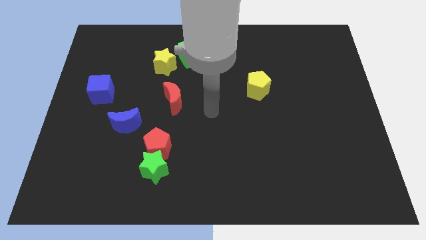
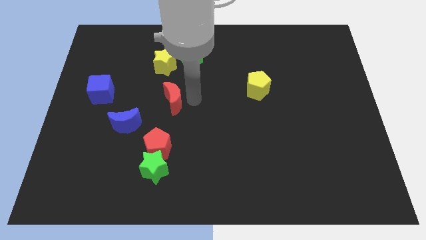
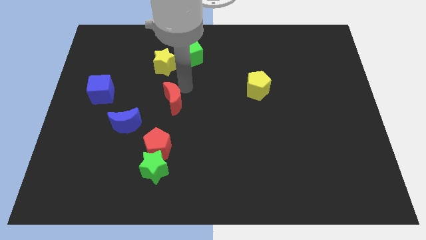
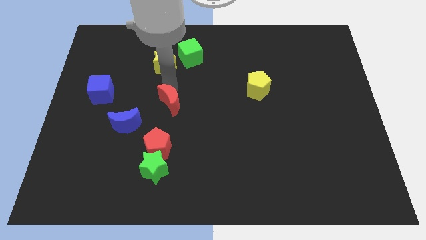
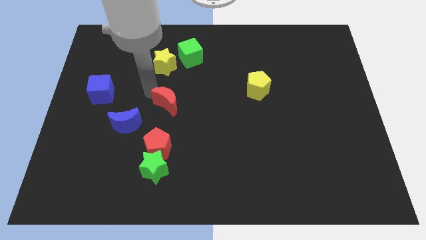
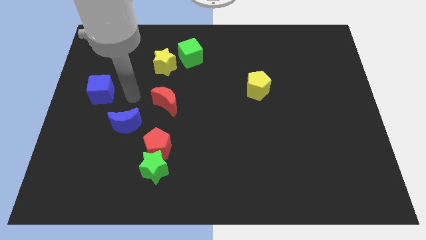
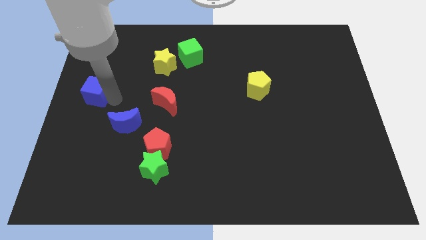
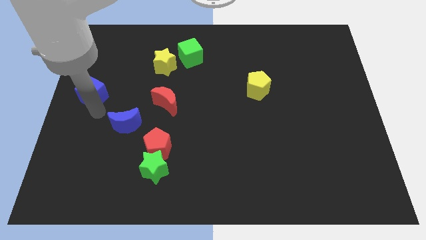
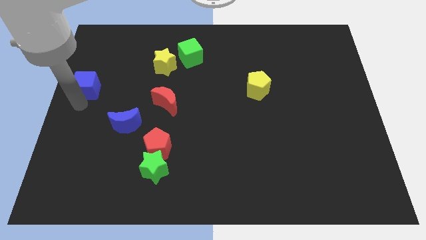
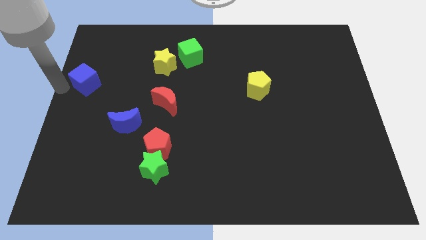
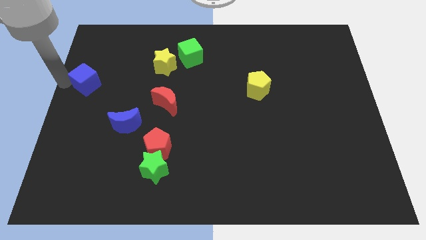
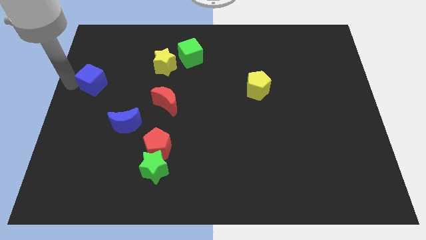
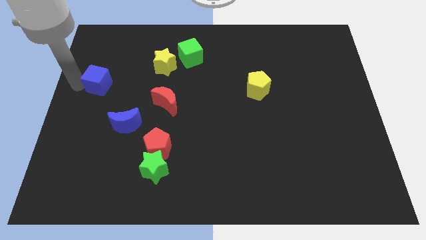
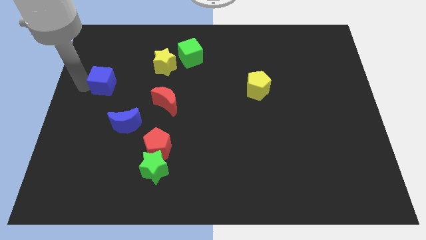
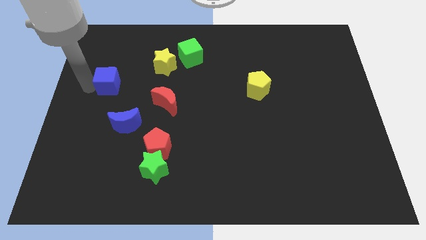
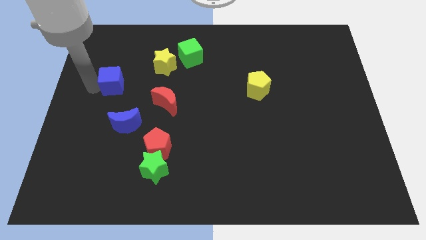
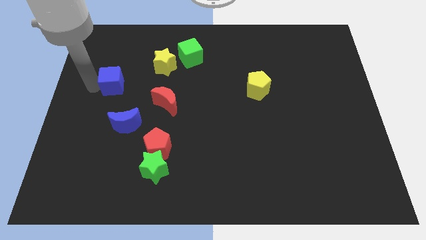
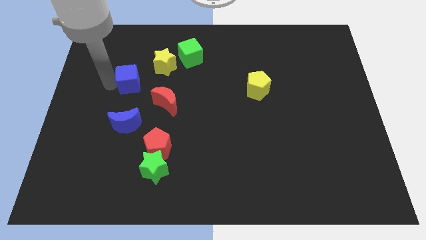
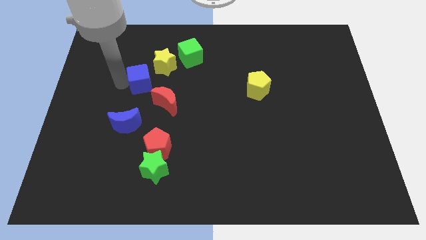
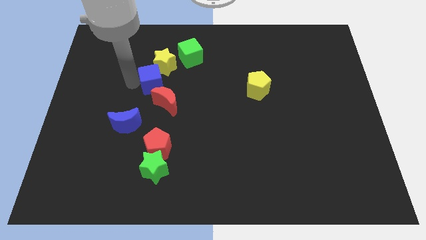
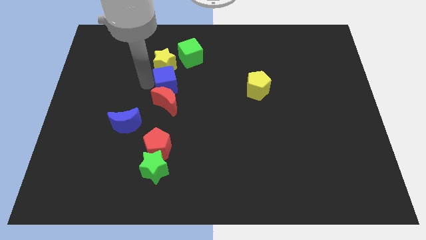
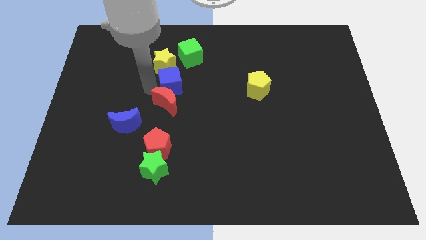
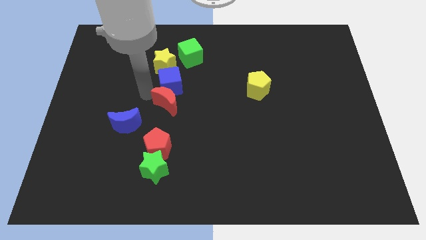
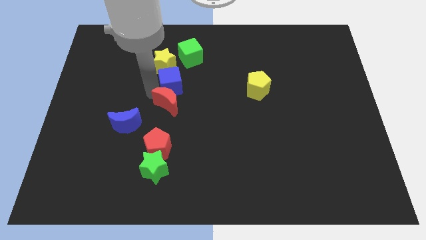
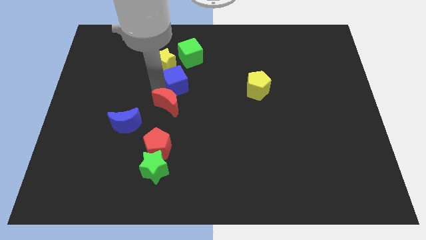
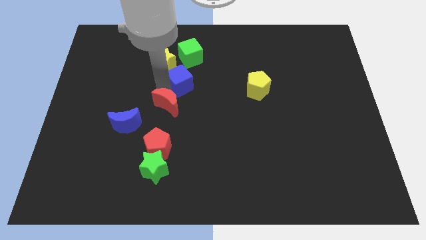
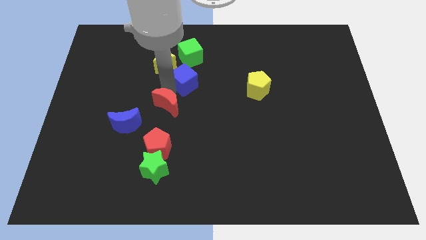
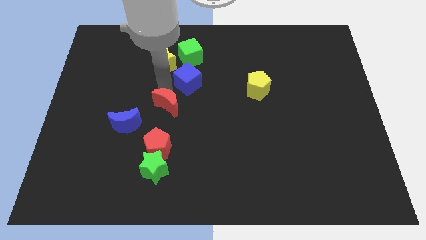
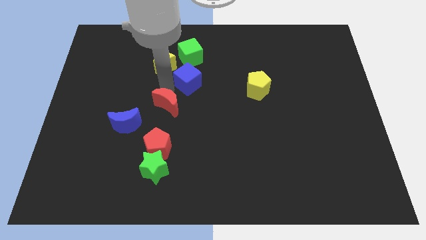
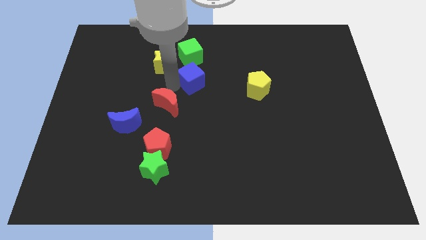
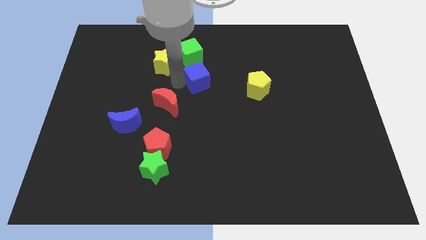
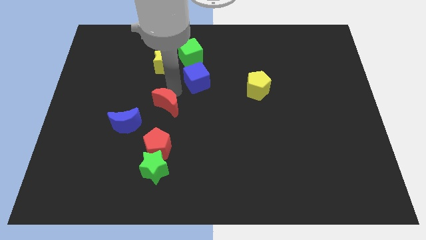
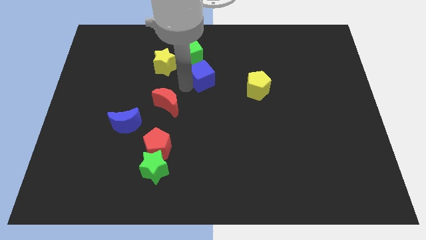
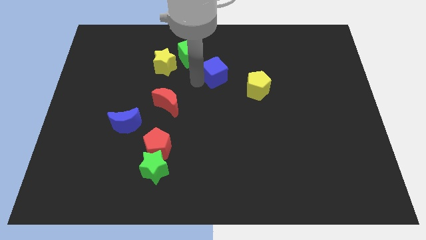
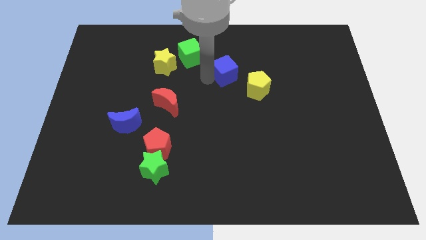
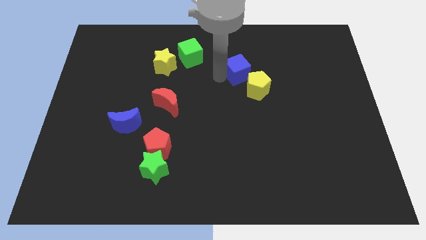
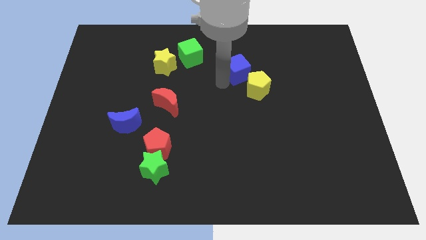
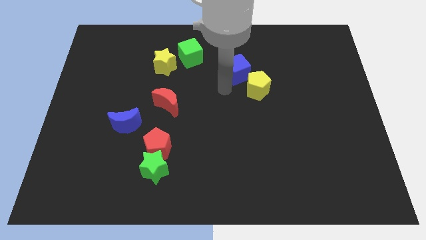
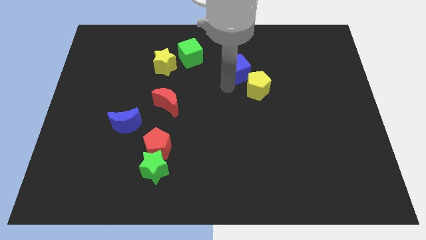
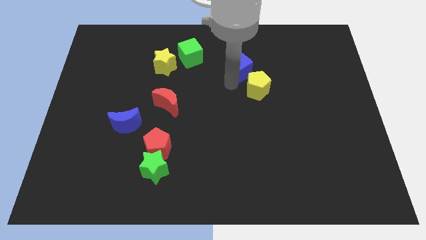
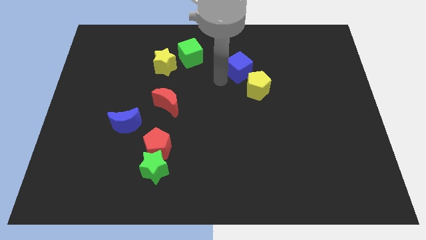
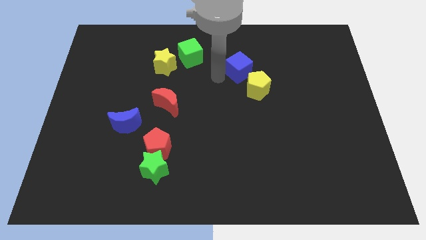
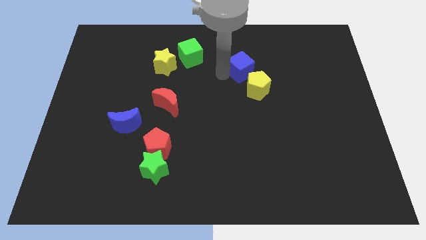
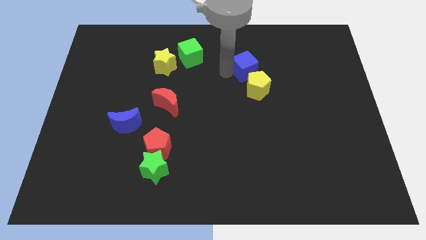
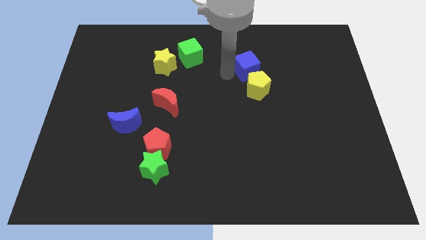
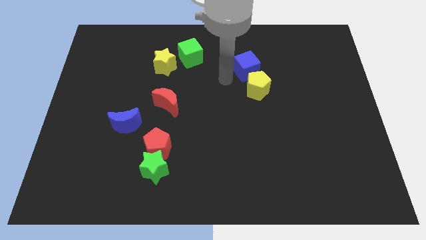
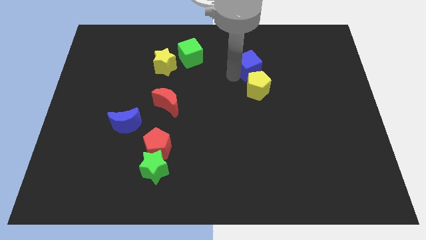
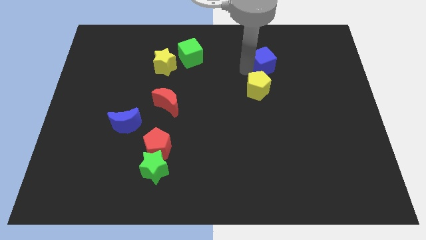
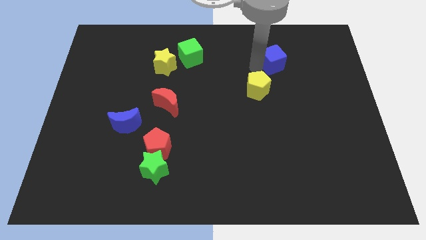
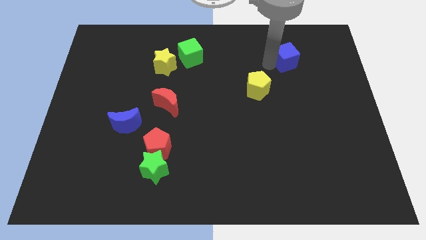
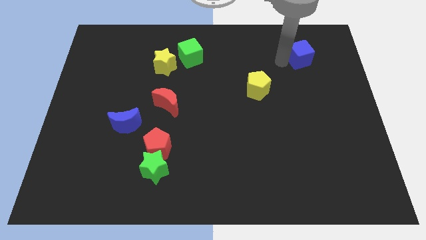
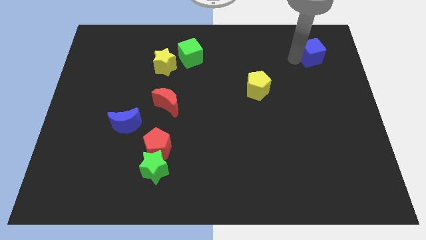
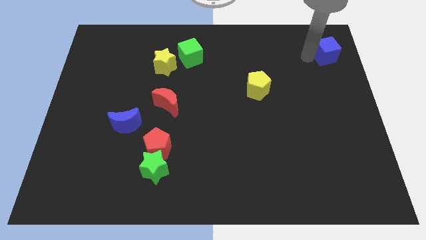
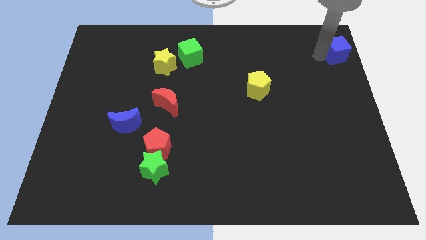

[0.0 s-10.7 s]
put the blue cube to the top right corner
